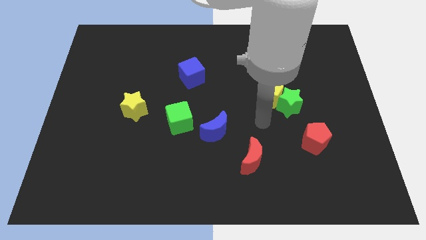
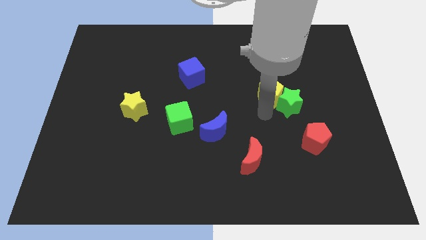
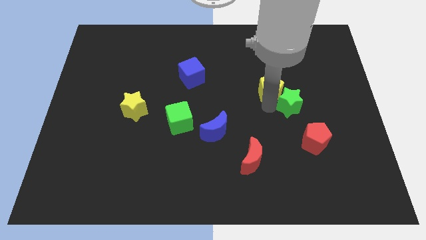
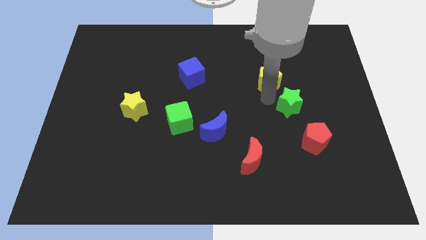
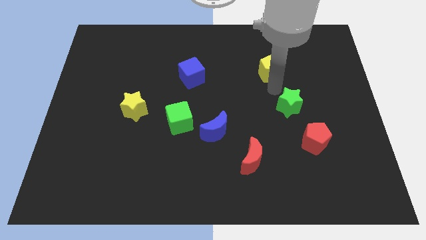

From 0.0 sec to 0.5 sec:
separate the green star from the yellow pentagon

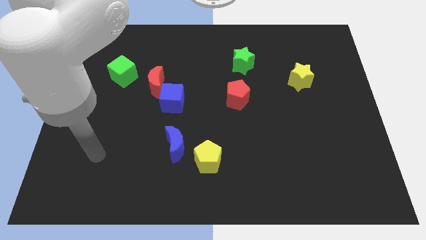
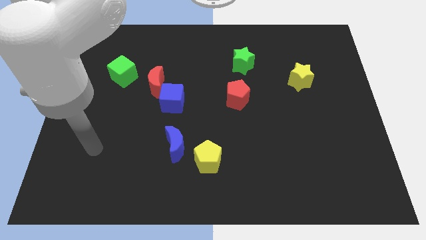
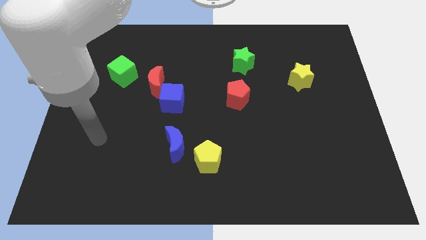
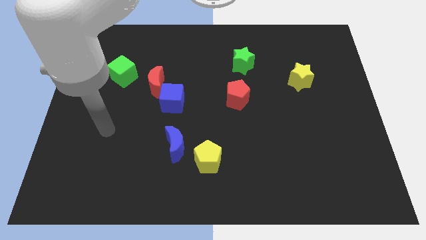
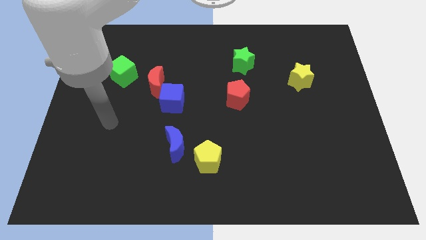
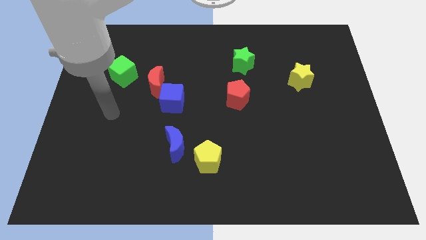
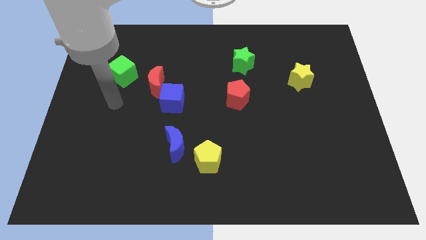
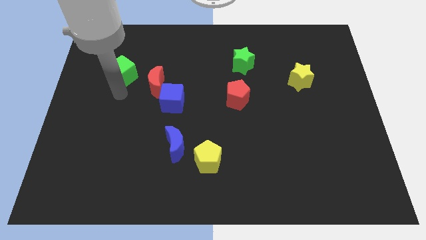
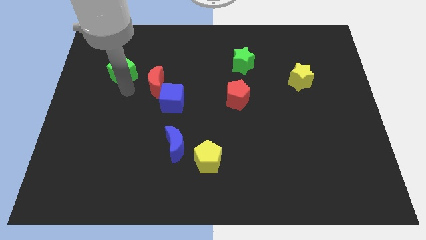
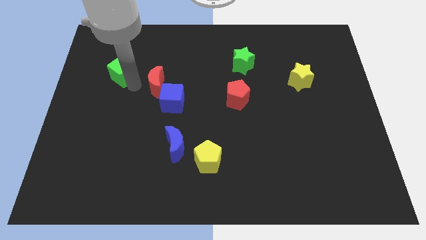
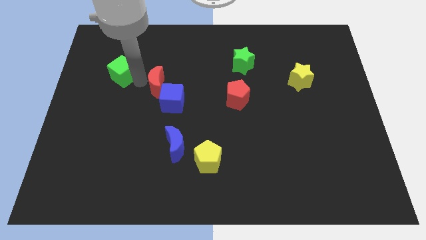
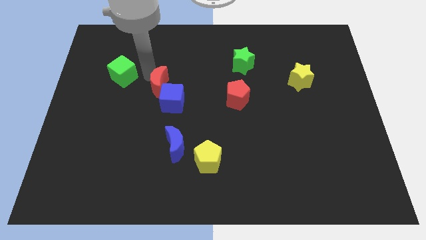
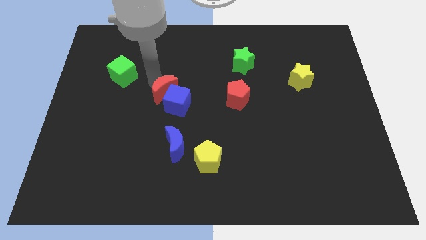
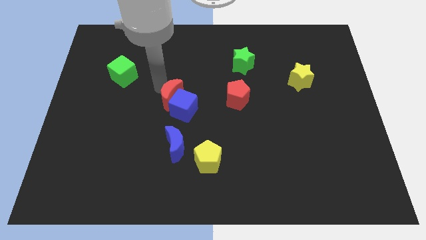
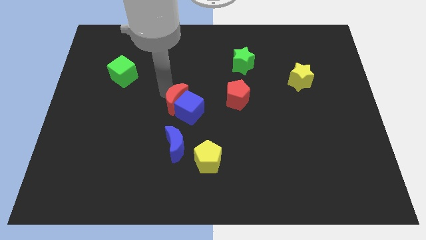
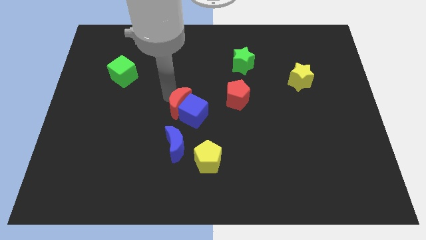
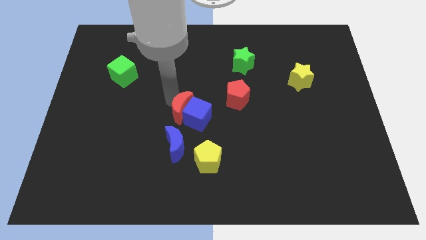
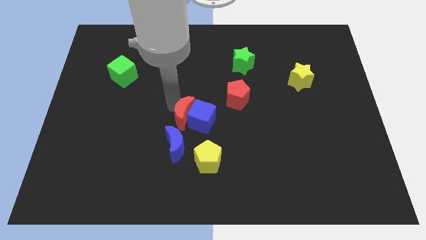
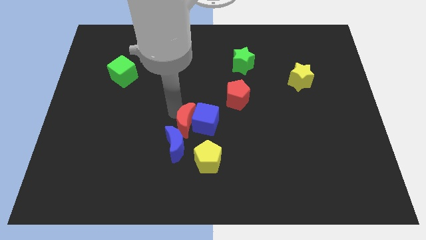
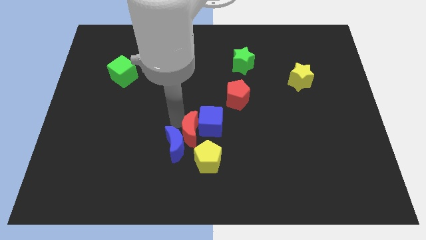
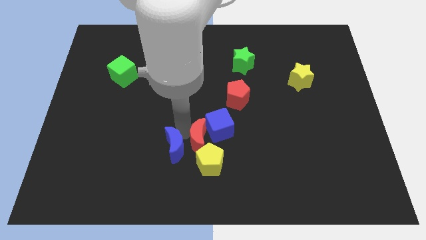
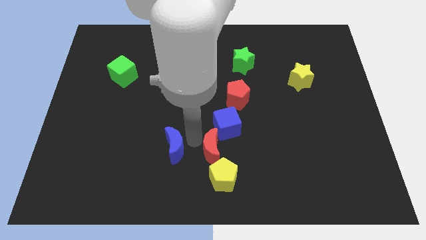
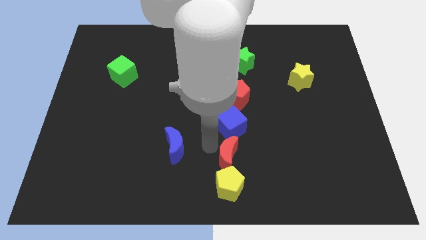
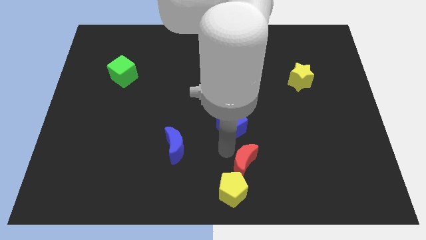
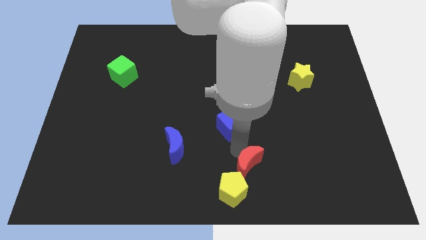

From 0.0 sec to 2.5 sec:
separate the blue cube from the red moon

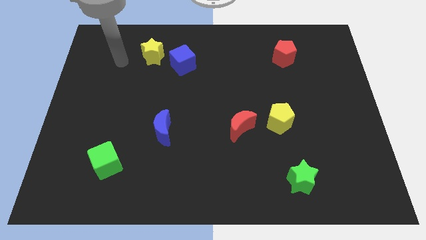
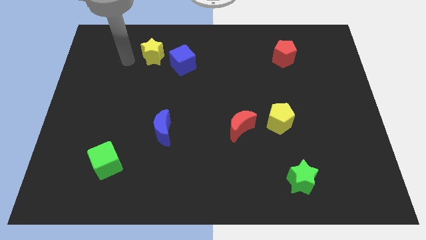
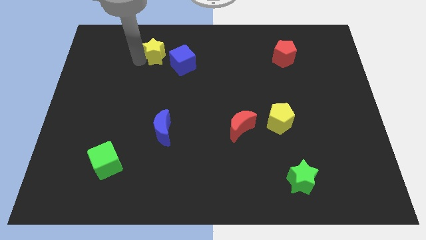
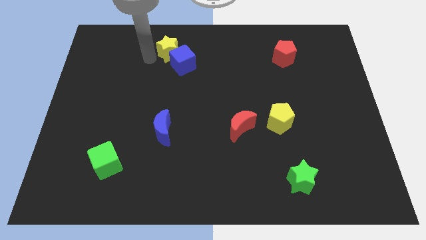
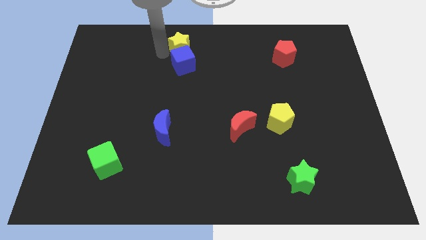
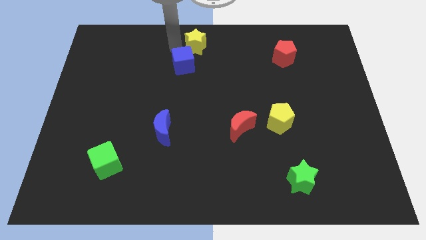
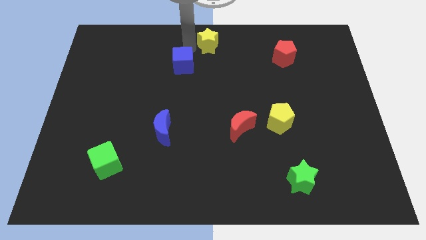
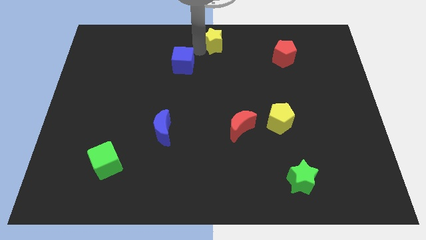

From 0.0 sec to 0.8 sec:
pull the blue cube apart from the yellow star

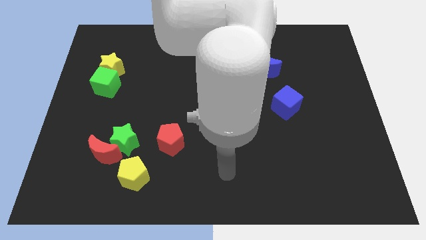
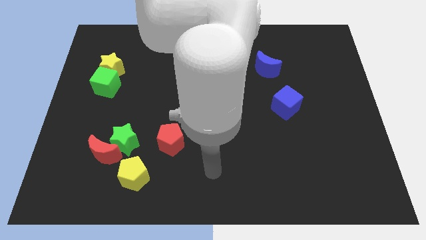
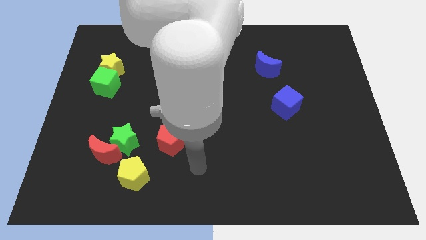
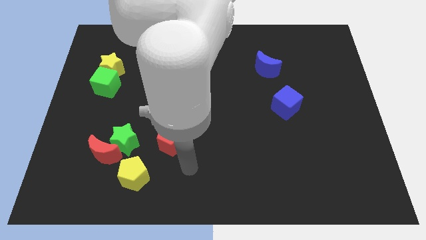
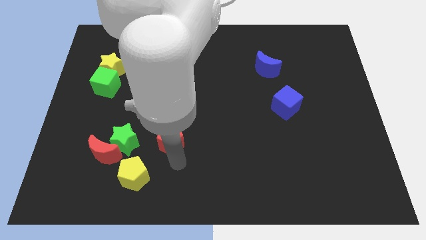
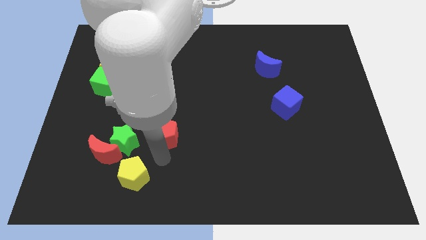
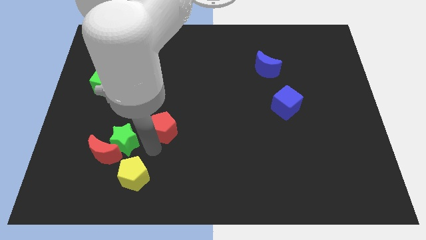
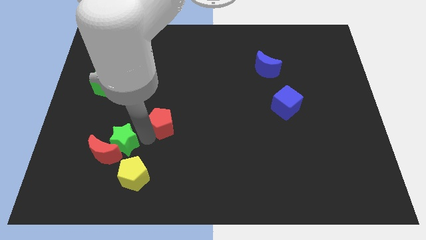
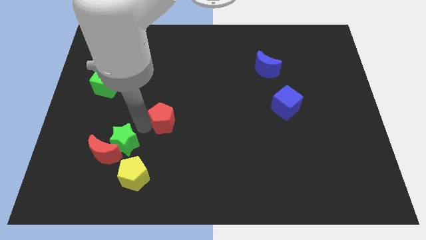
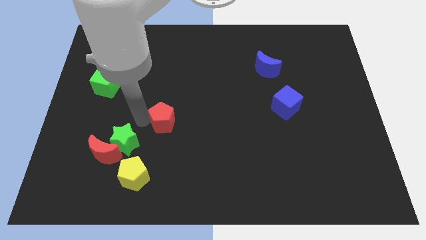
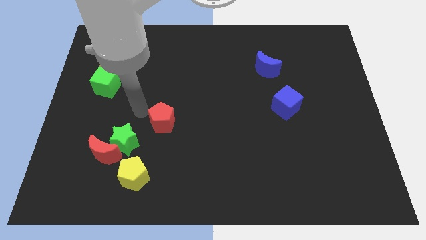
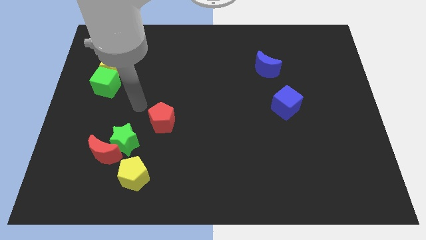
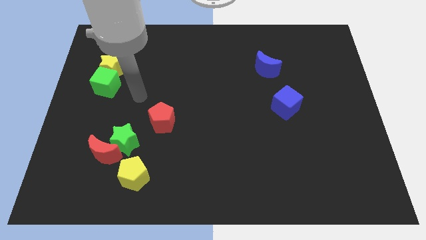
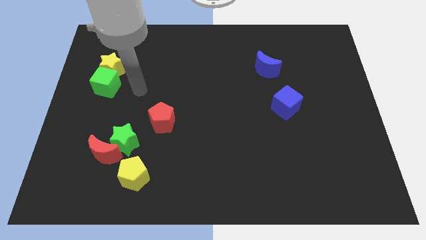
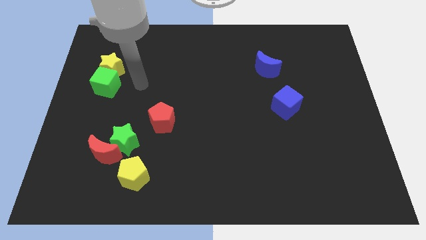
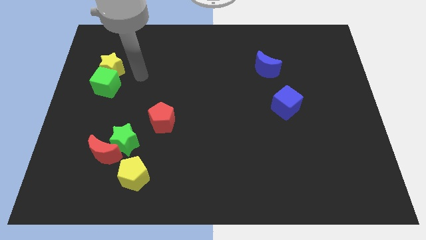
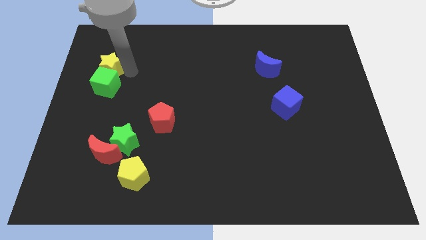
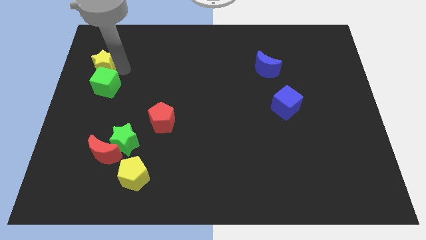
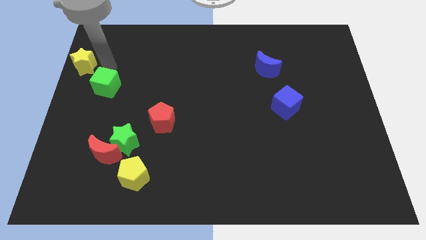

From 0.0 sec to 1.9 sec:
pull the green cube apart from the yellow star

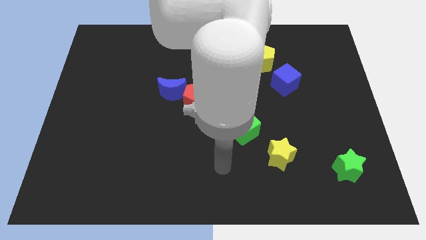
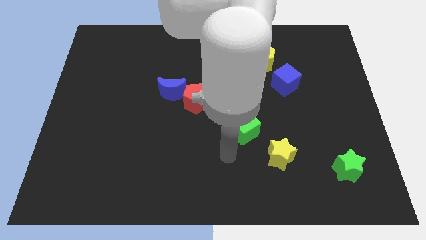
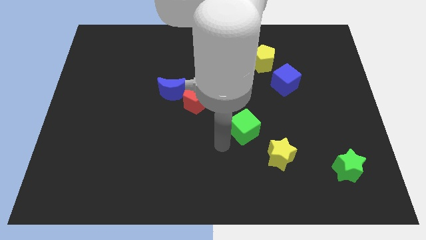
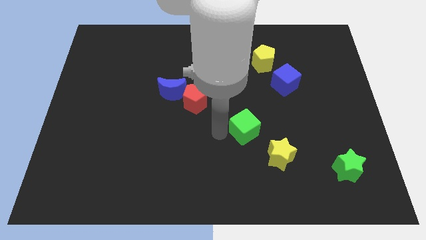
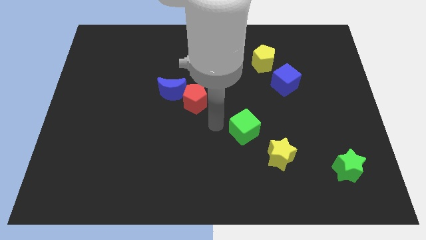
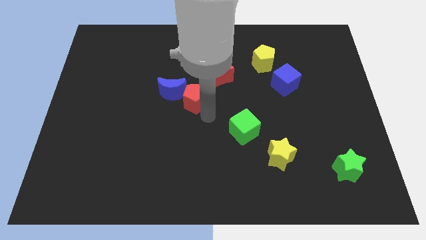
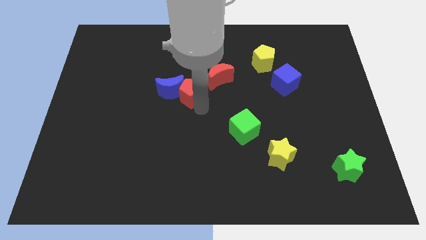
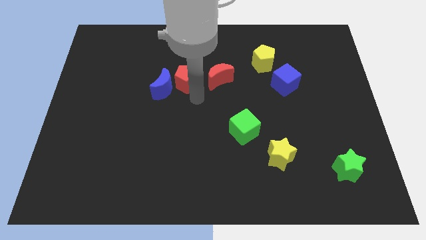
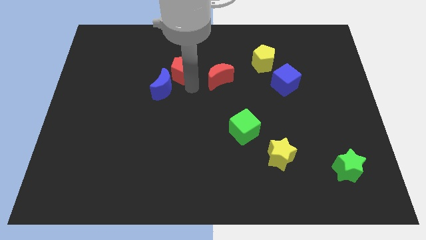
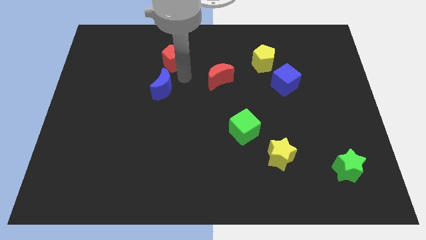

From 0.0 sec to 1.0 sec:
move the blue moon away from the red pentagon

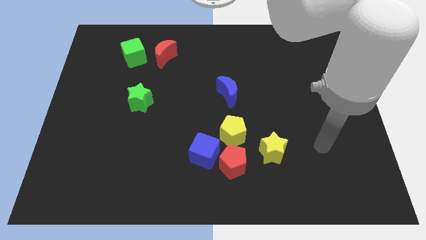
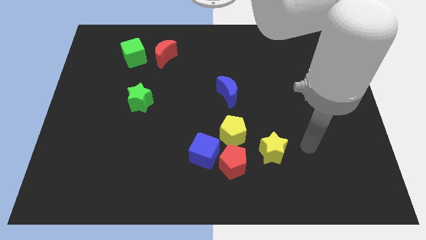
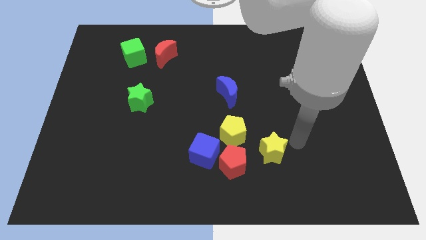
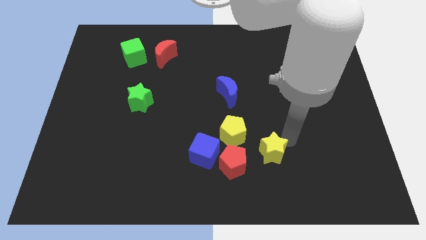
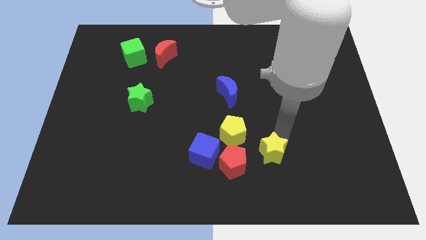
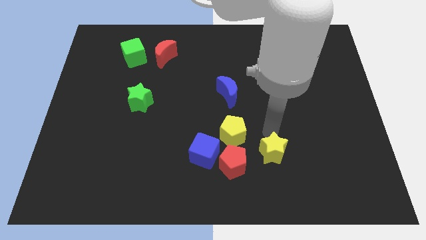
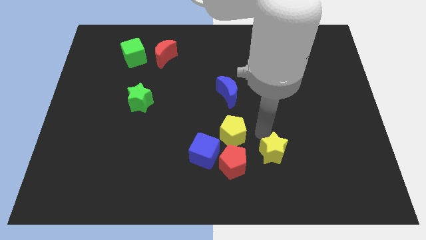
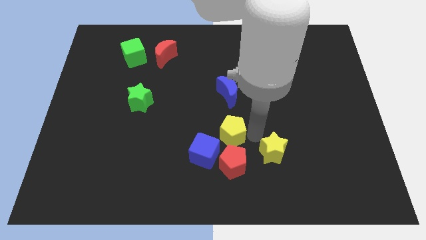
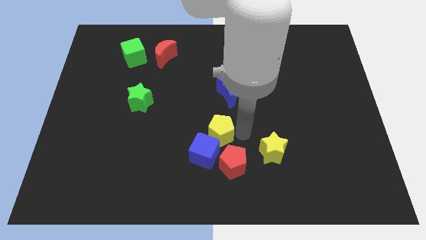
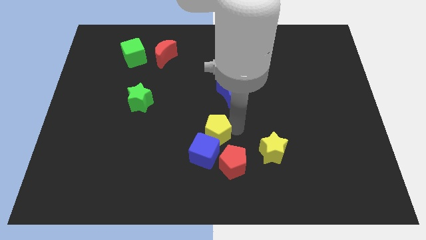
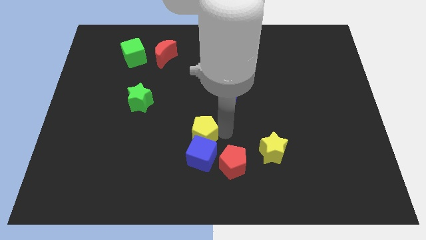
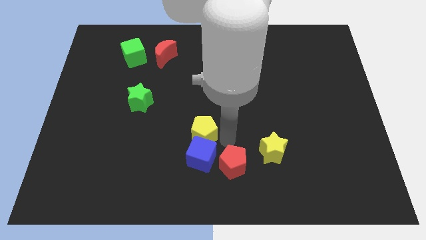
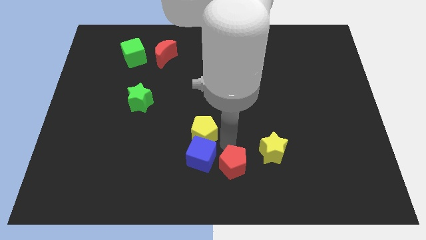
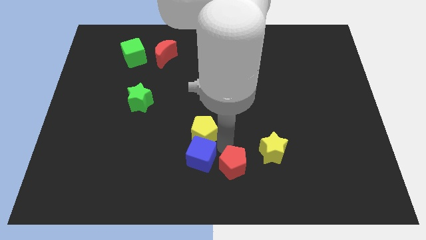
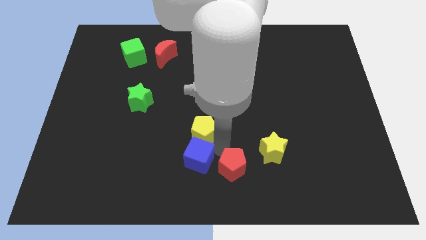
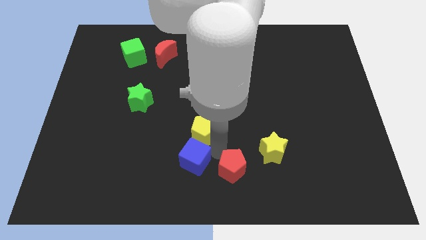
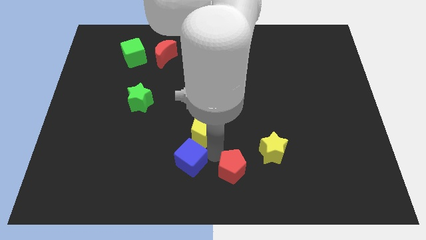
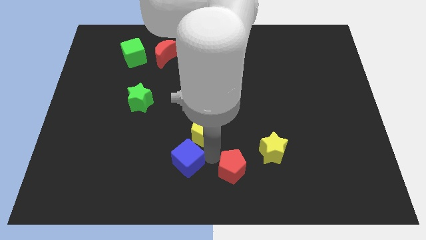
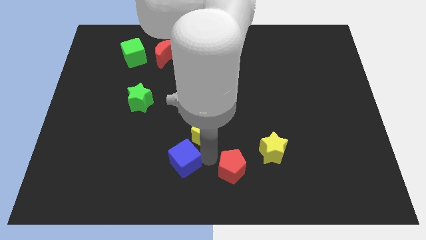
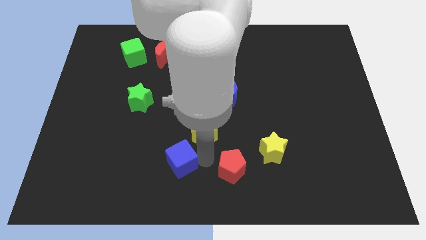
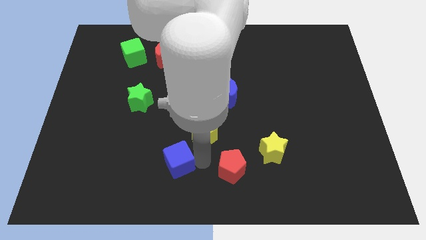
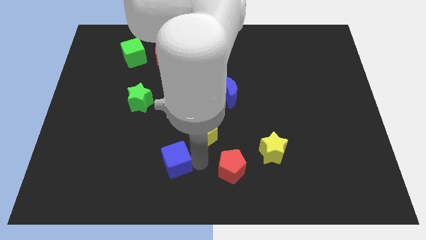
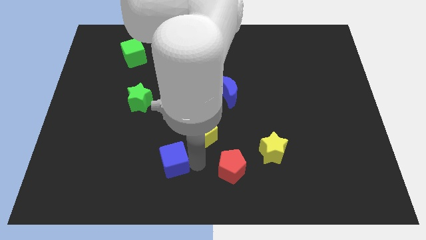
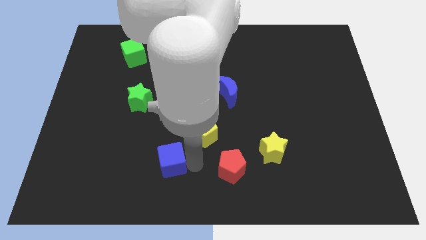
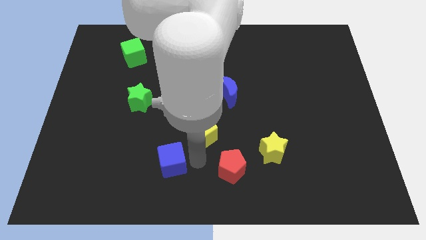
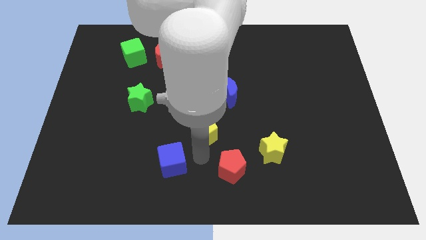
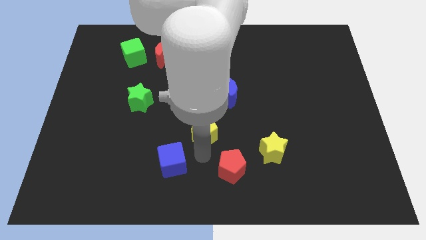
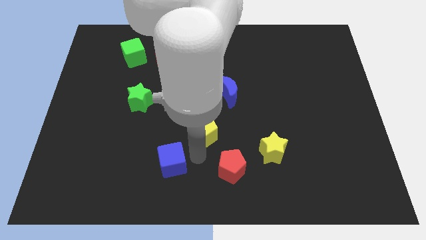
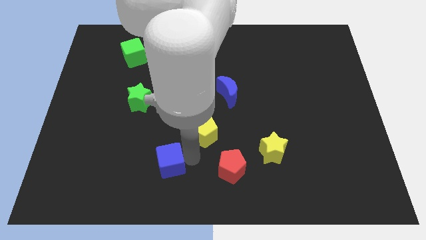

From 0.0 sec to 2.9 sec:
pull the blue cube apart from the red pentagon and yellow pentagon
